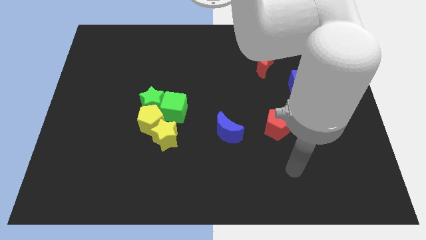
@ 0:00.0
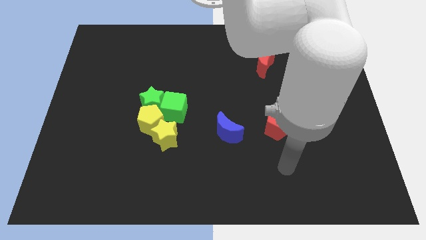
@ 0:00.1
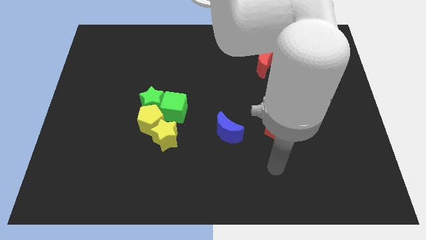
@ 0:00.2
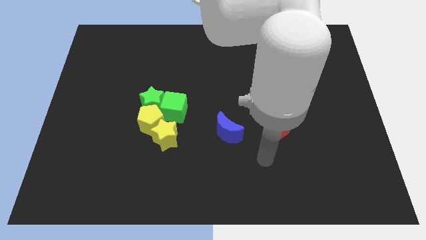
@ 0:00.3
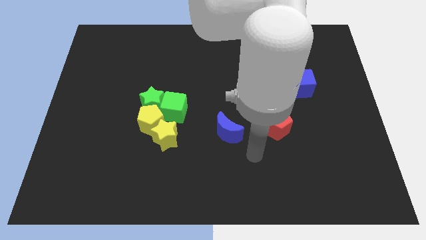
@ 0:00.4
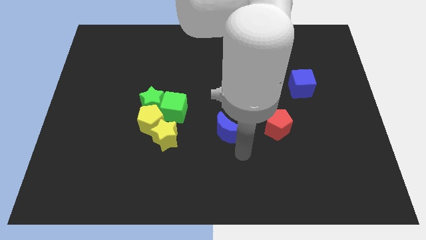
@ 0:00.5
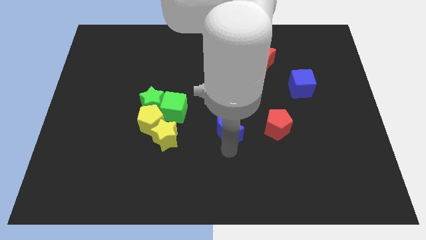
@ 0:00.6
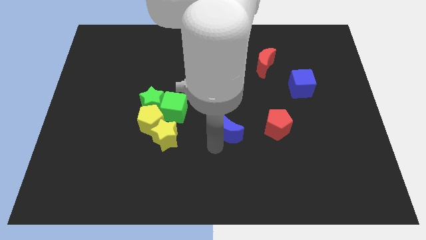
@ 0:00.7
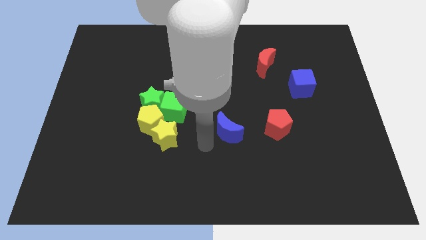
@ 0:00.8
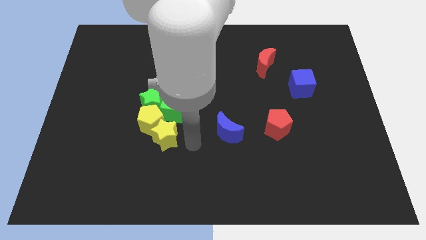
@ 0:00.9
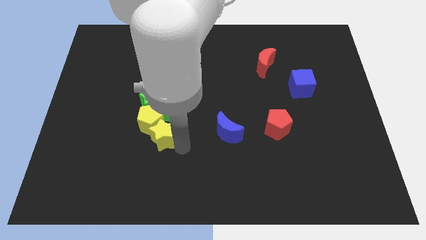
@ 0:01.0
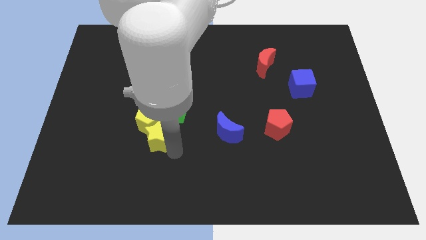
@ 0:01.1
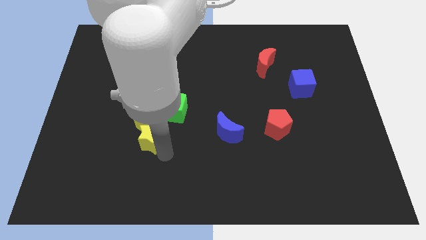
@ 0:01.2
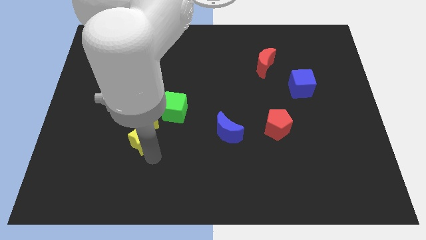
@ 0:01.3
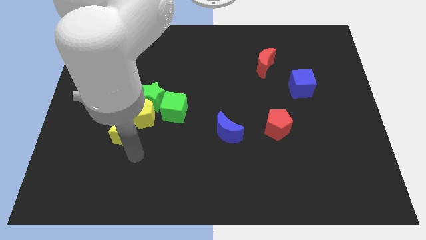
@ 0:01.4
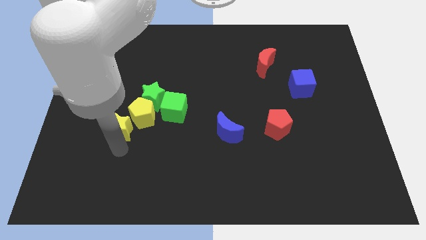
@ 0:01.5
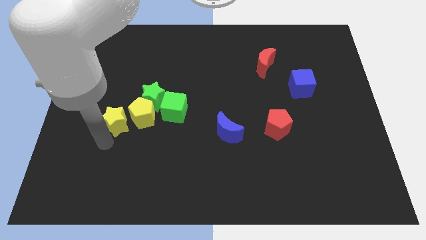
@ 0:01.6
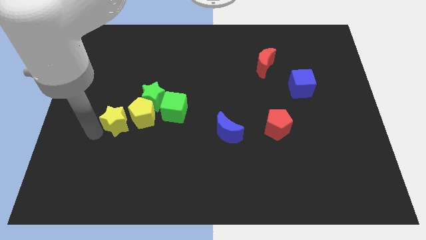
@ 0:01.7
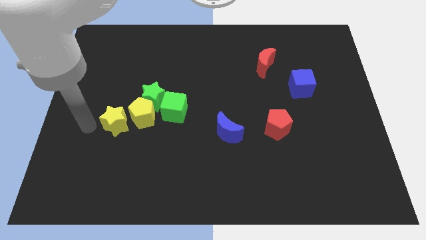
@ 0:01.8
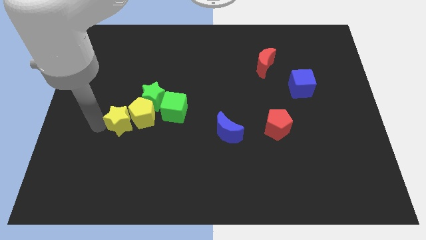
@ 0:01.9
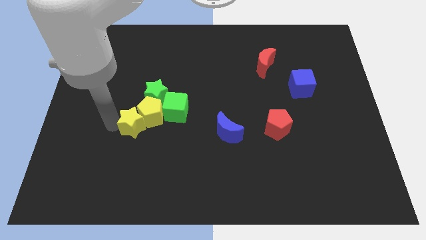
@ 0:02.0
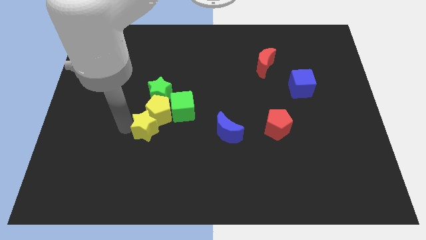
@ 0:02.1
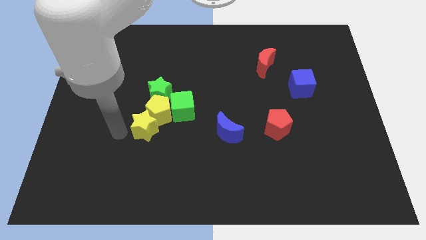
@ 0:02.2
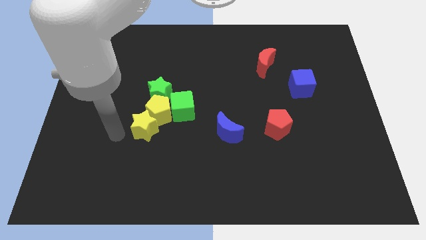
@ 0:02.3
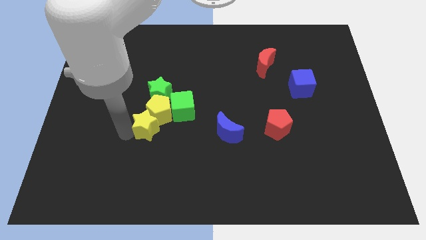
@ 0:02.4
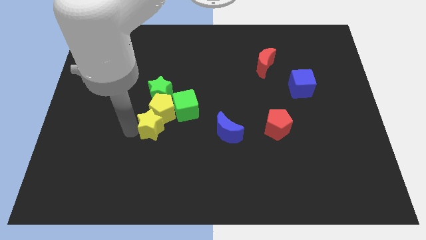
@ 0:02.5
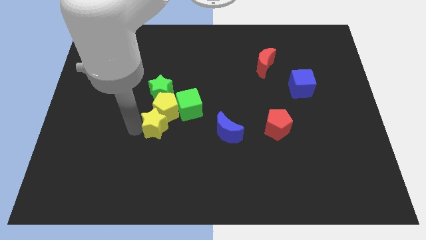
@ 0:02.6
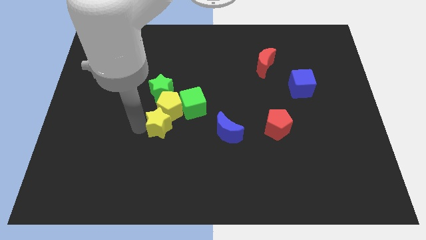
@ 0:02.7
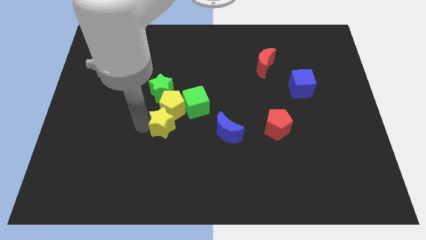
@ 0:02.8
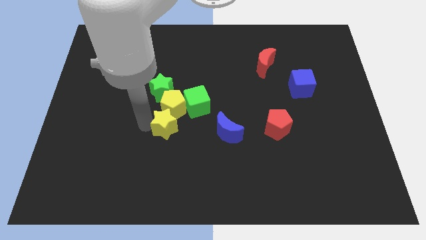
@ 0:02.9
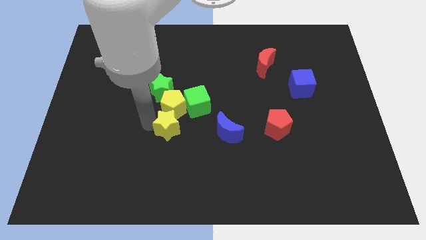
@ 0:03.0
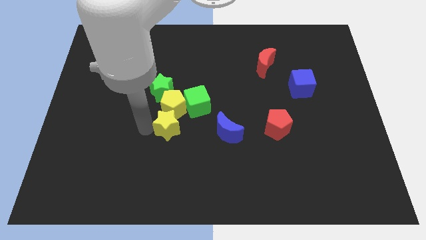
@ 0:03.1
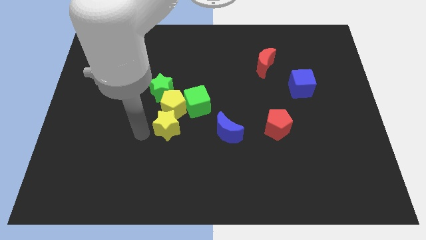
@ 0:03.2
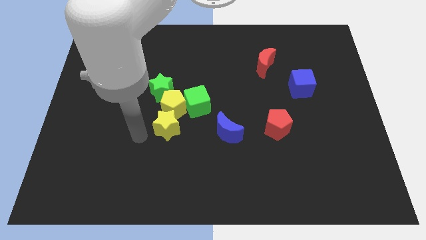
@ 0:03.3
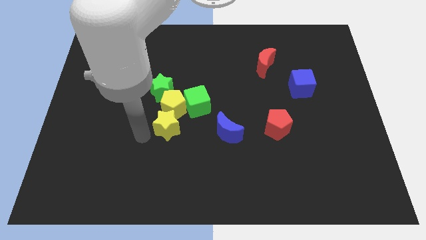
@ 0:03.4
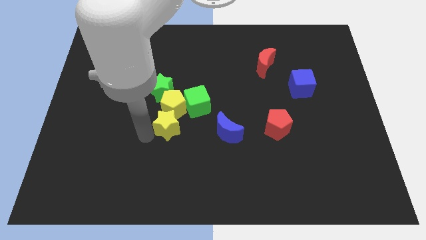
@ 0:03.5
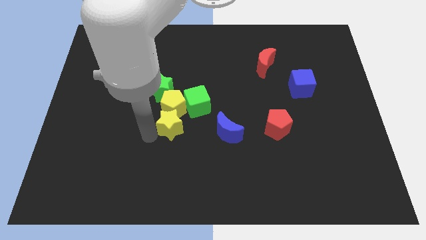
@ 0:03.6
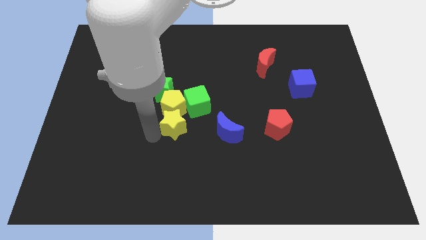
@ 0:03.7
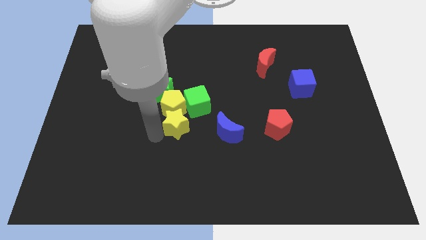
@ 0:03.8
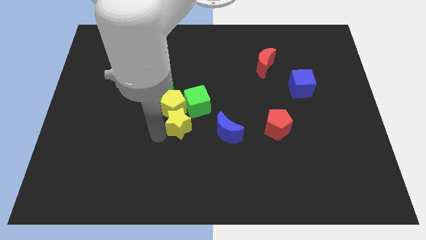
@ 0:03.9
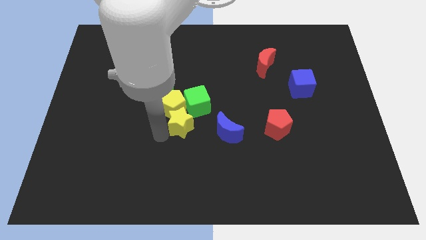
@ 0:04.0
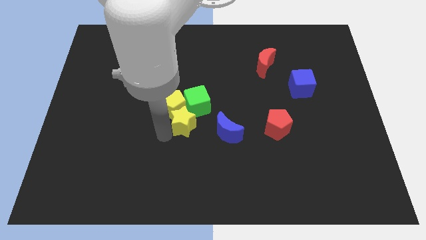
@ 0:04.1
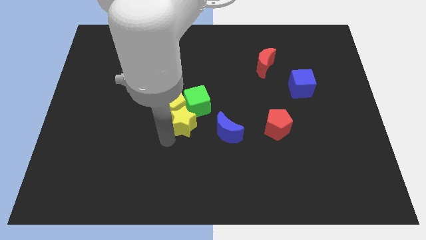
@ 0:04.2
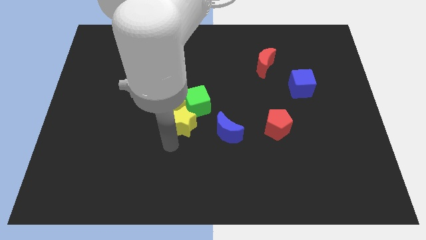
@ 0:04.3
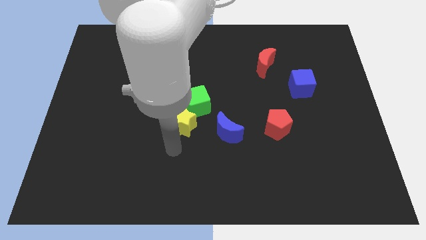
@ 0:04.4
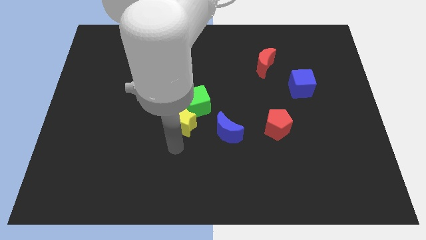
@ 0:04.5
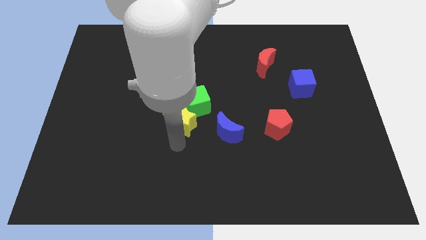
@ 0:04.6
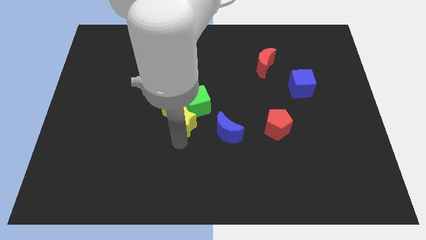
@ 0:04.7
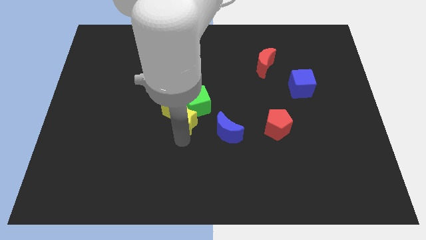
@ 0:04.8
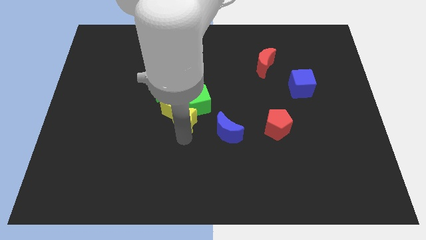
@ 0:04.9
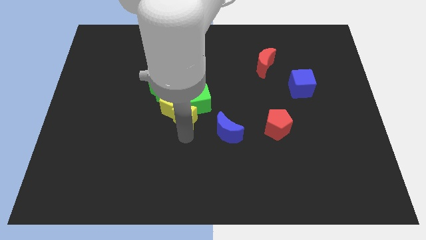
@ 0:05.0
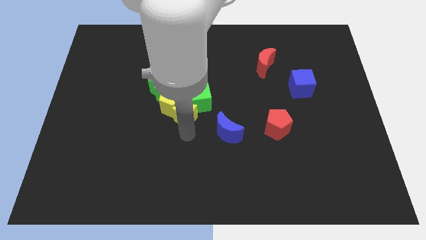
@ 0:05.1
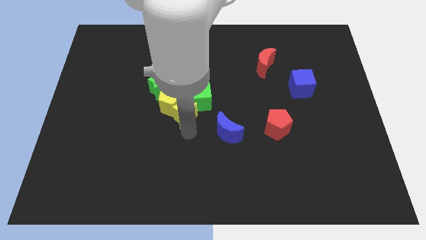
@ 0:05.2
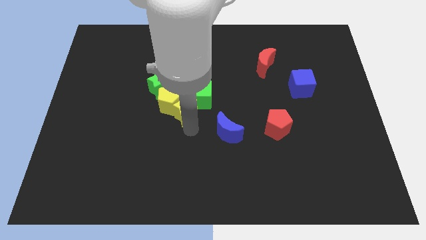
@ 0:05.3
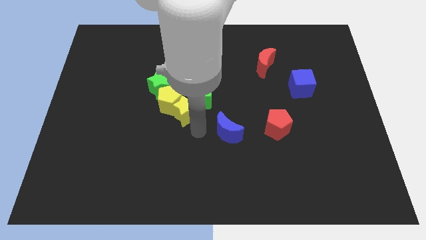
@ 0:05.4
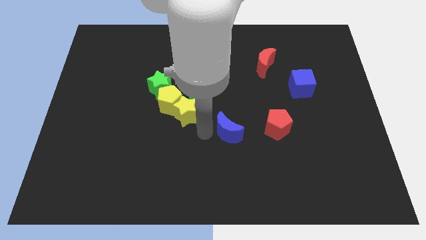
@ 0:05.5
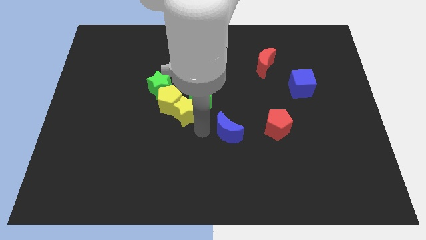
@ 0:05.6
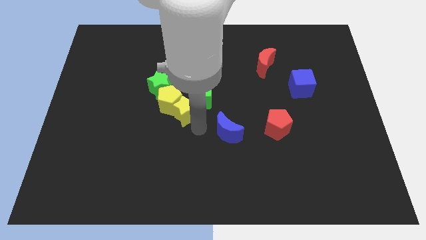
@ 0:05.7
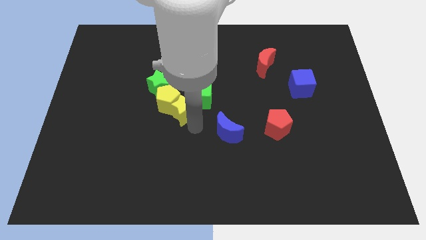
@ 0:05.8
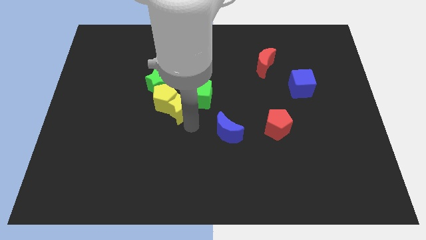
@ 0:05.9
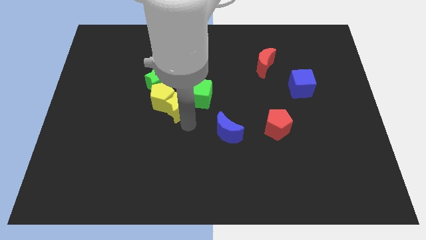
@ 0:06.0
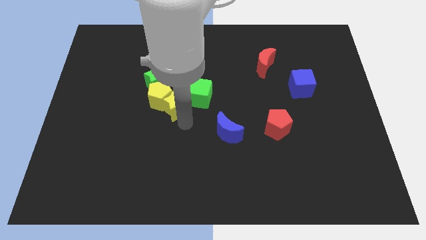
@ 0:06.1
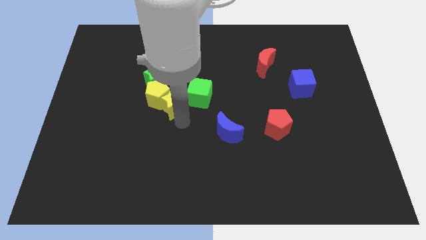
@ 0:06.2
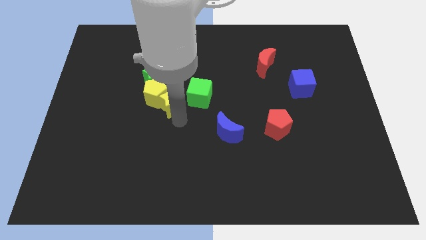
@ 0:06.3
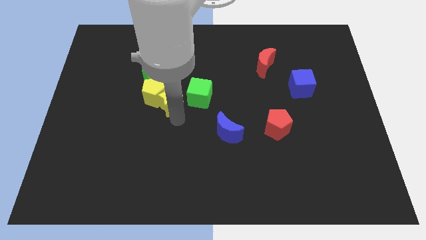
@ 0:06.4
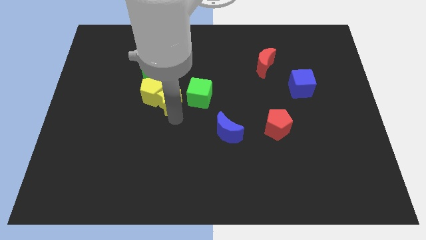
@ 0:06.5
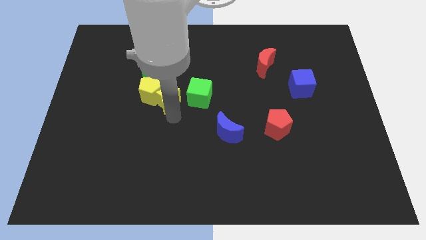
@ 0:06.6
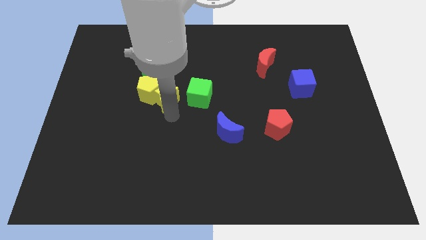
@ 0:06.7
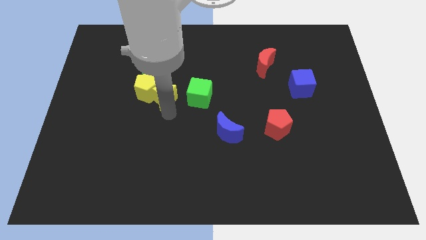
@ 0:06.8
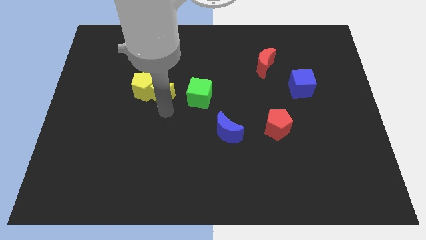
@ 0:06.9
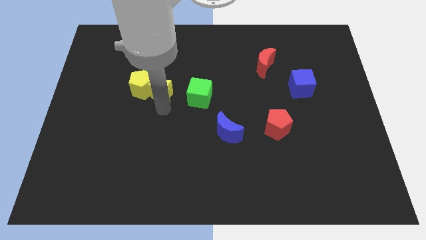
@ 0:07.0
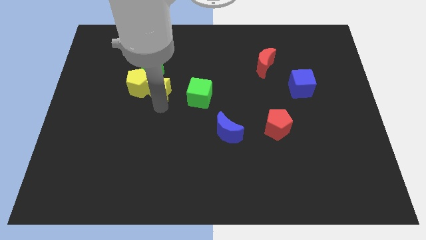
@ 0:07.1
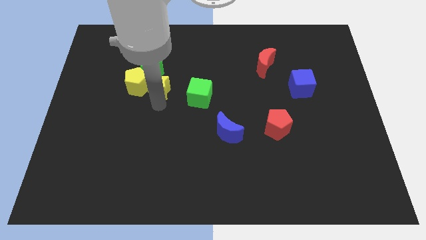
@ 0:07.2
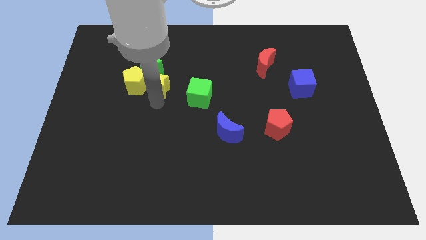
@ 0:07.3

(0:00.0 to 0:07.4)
slide the yellow star next to the green star
